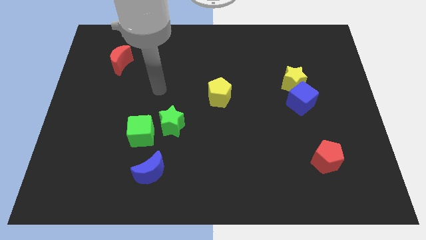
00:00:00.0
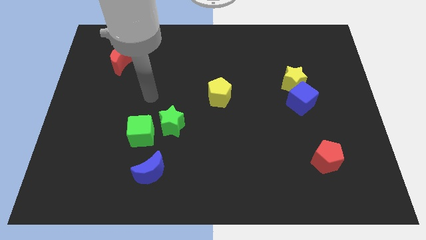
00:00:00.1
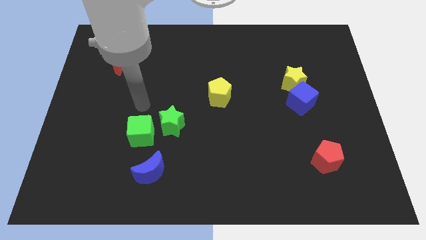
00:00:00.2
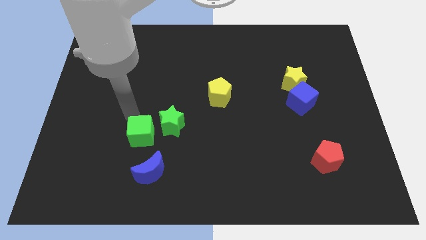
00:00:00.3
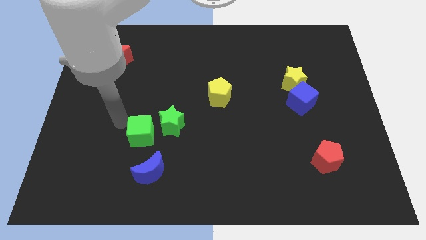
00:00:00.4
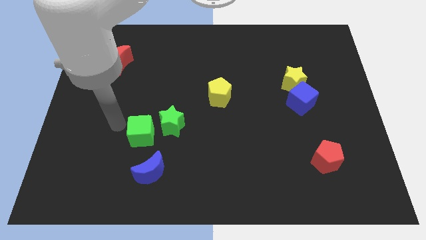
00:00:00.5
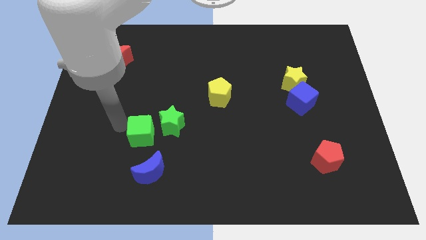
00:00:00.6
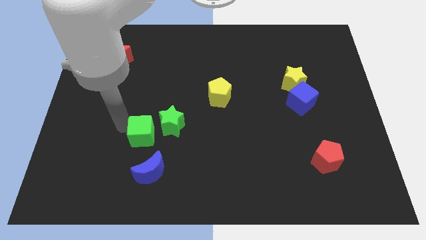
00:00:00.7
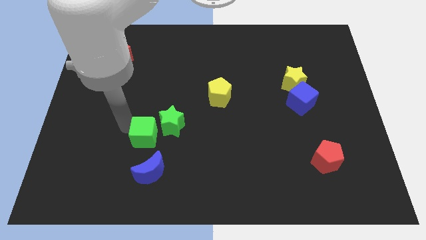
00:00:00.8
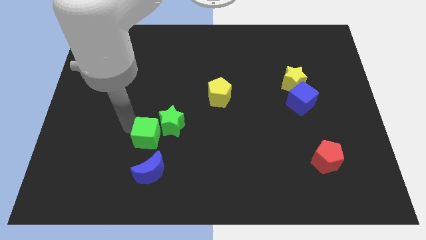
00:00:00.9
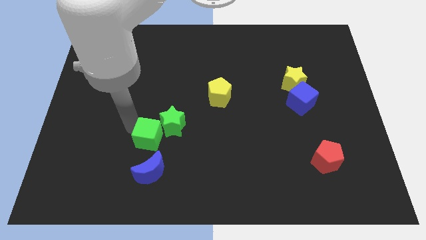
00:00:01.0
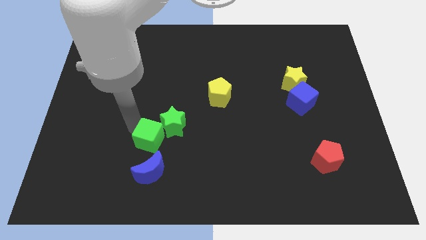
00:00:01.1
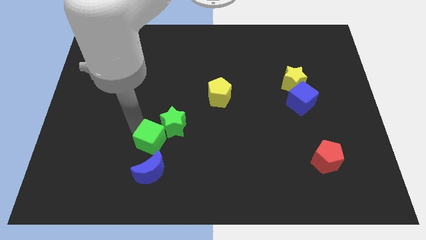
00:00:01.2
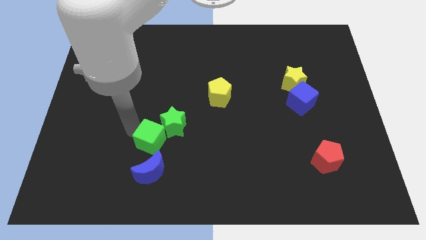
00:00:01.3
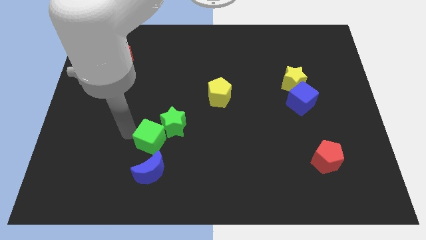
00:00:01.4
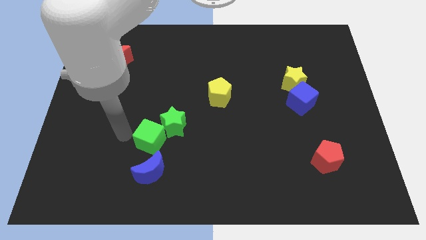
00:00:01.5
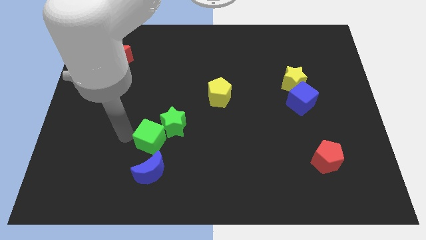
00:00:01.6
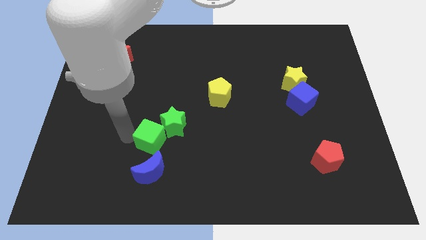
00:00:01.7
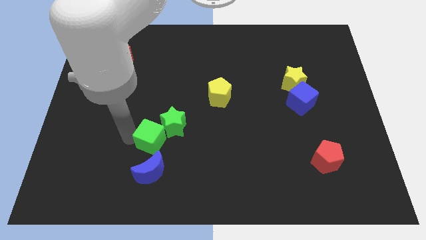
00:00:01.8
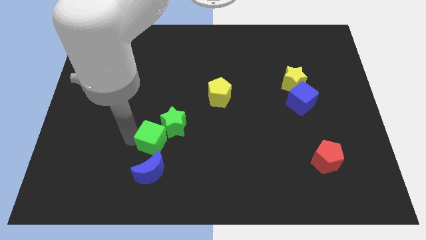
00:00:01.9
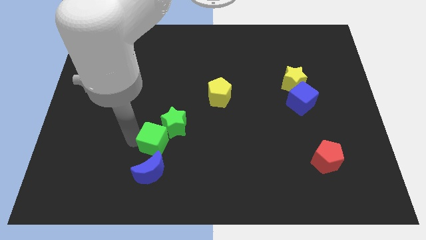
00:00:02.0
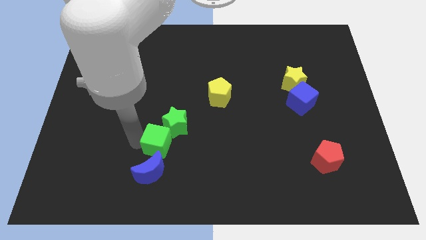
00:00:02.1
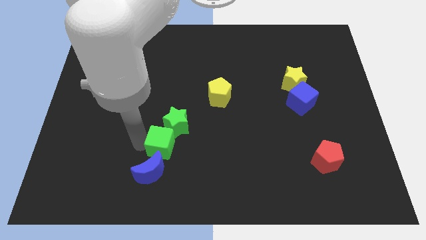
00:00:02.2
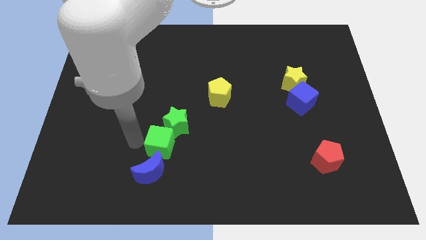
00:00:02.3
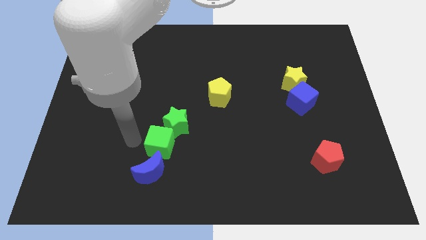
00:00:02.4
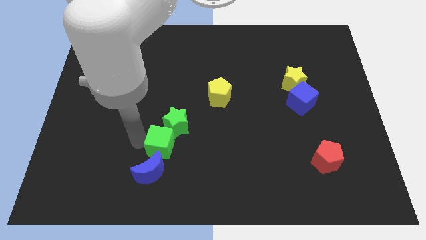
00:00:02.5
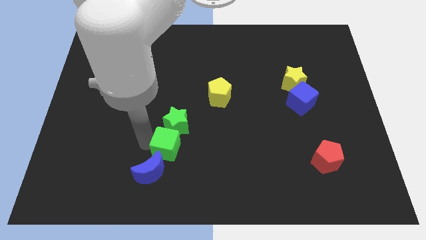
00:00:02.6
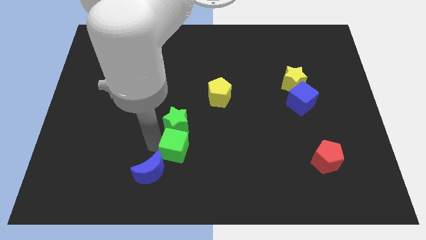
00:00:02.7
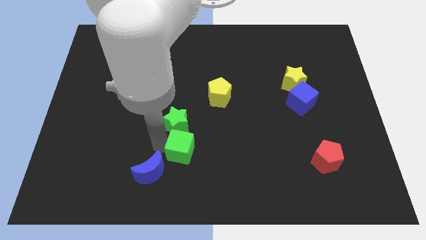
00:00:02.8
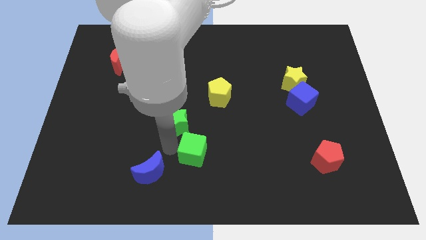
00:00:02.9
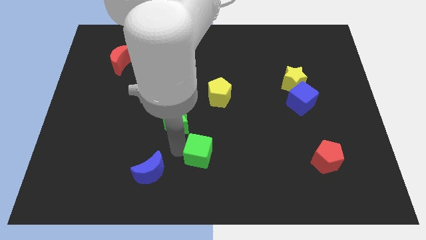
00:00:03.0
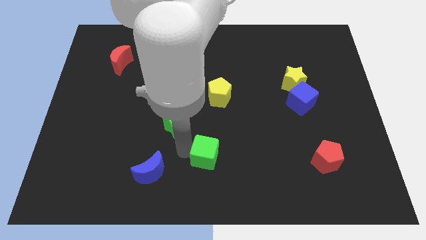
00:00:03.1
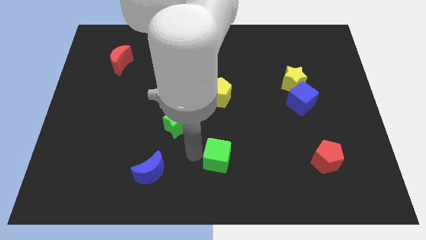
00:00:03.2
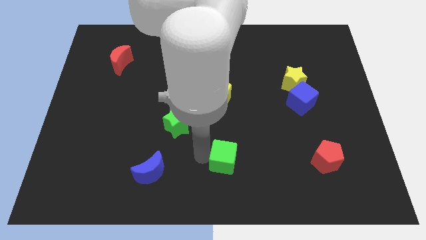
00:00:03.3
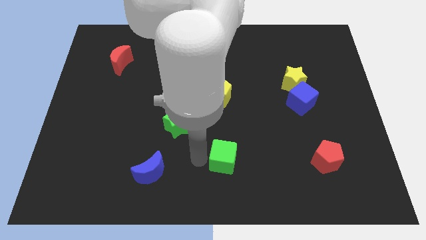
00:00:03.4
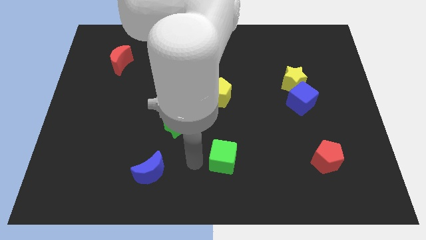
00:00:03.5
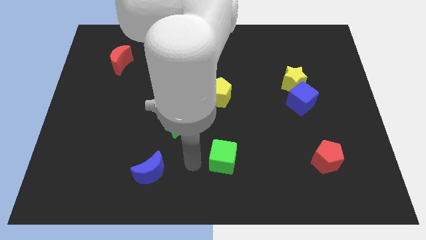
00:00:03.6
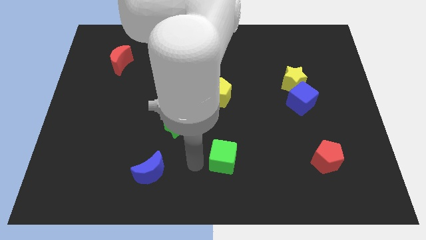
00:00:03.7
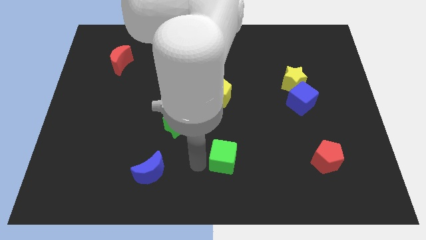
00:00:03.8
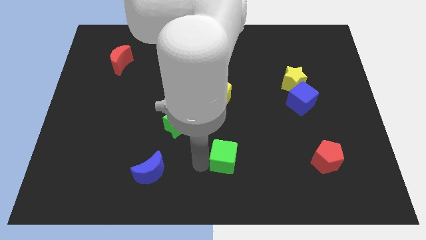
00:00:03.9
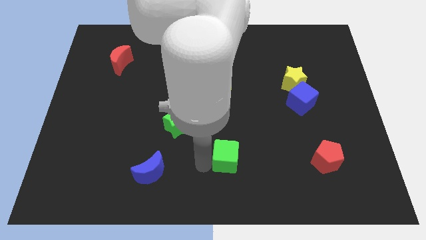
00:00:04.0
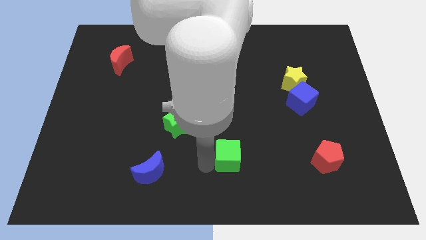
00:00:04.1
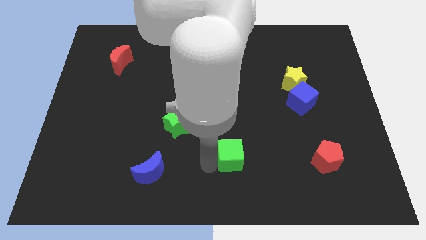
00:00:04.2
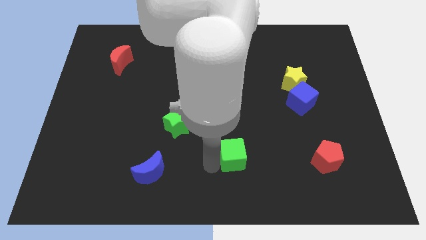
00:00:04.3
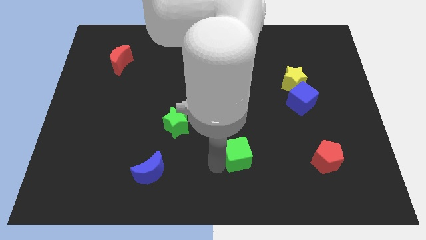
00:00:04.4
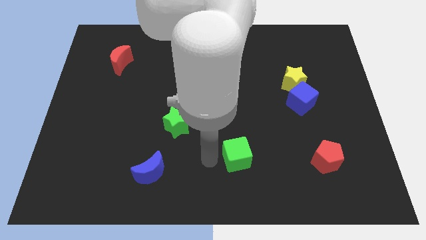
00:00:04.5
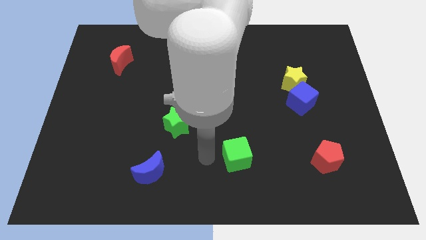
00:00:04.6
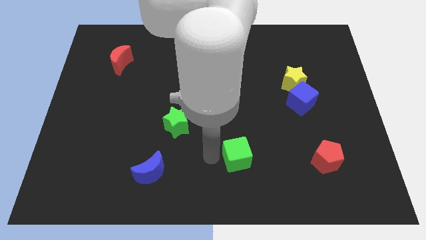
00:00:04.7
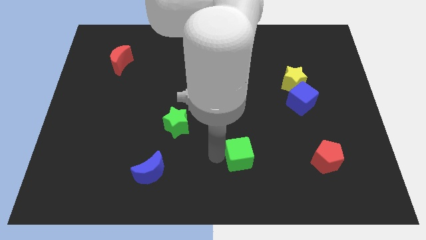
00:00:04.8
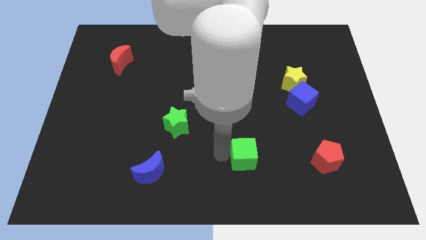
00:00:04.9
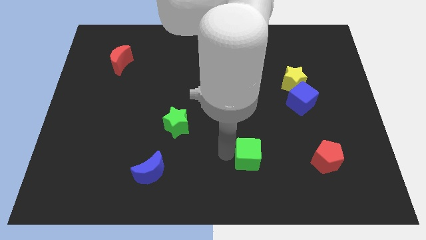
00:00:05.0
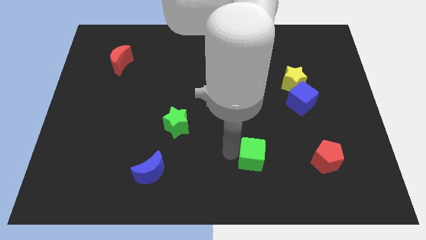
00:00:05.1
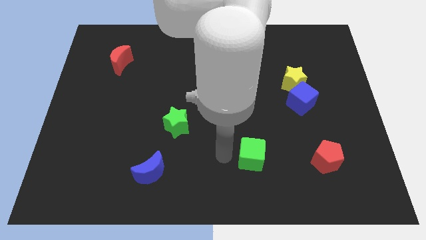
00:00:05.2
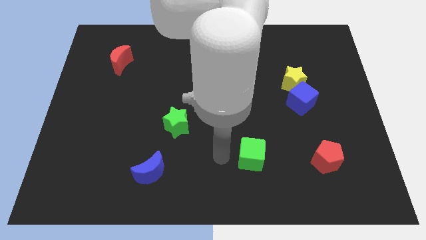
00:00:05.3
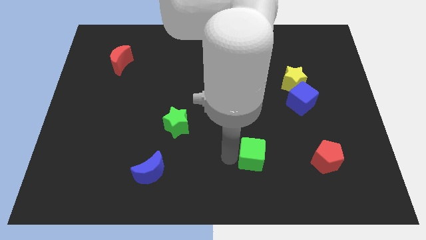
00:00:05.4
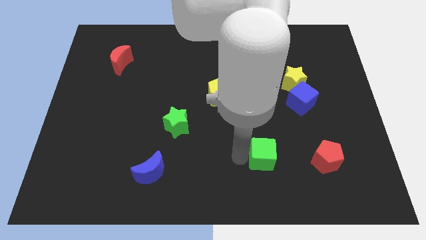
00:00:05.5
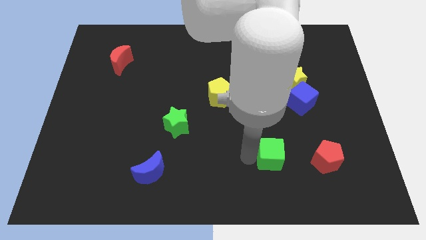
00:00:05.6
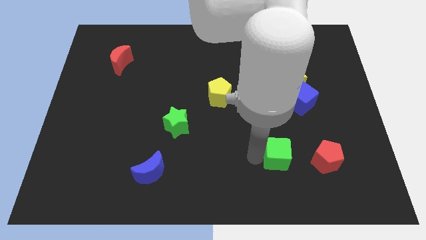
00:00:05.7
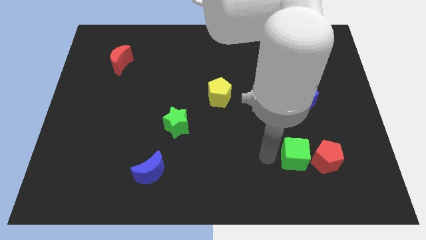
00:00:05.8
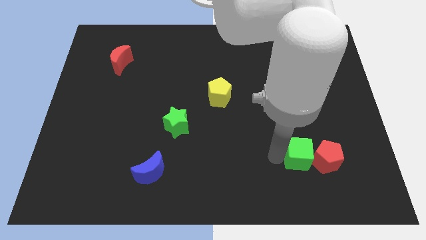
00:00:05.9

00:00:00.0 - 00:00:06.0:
slide the green cube close to the red pentagon
